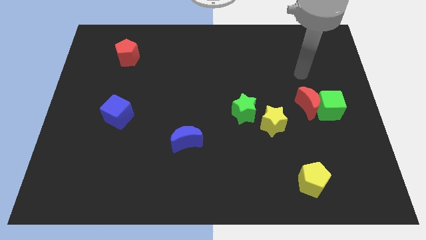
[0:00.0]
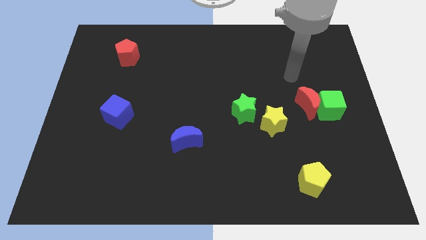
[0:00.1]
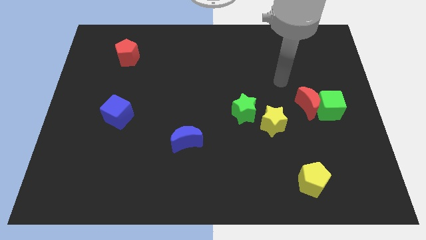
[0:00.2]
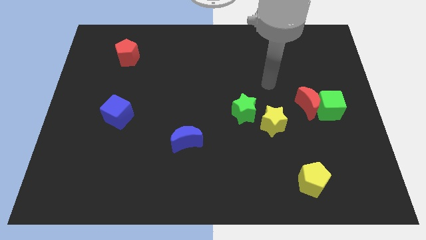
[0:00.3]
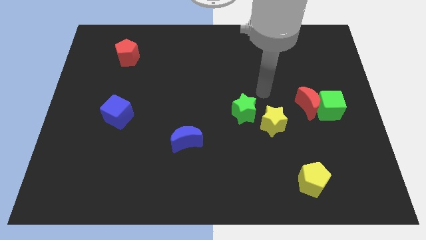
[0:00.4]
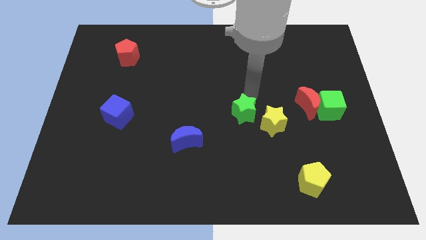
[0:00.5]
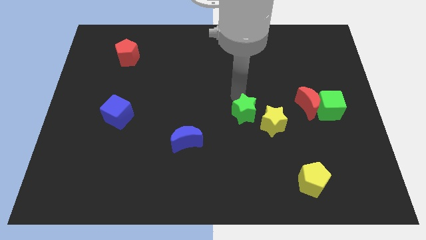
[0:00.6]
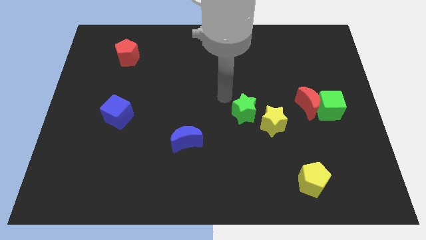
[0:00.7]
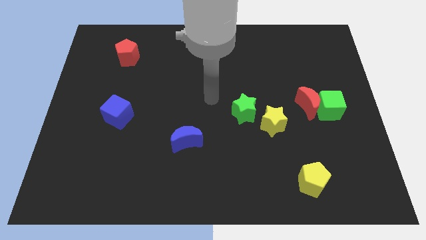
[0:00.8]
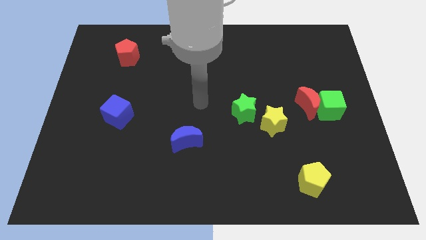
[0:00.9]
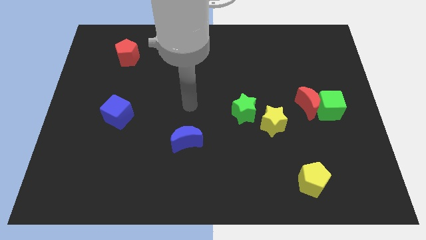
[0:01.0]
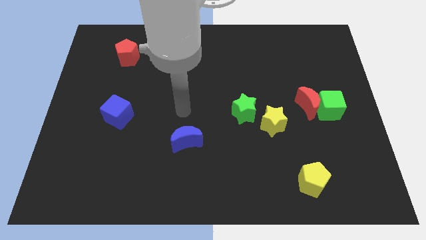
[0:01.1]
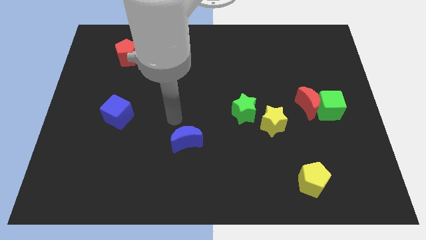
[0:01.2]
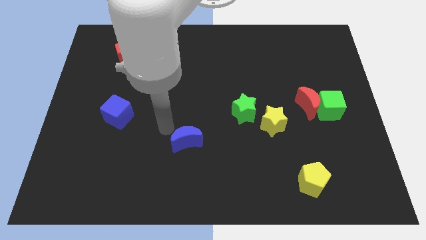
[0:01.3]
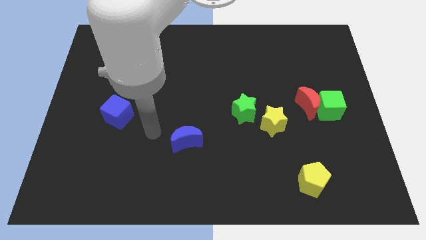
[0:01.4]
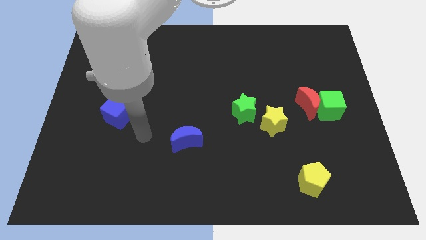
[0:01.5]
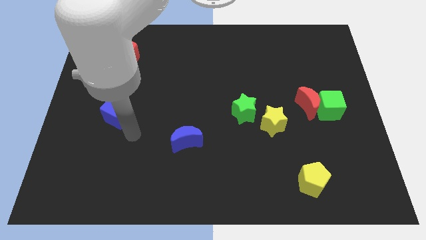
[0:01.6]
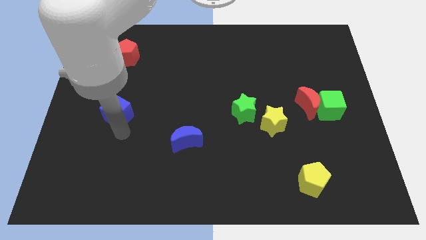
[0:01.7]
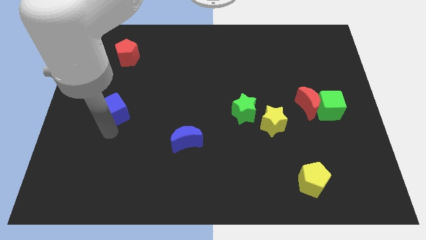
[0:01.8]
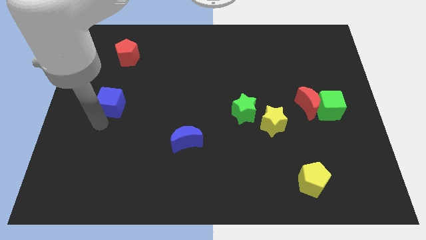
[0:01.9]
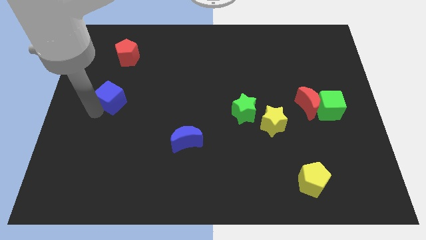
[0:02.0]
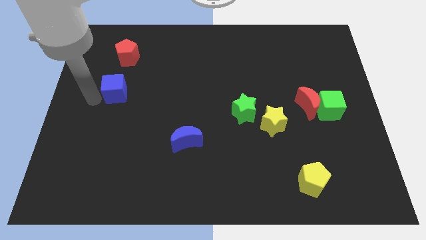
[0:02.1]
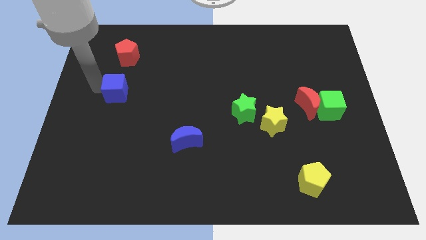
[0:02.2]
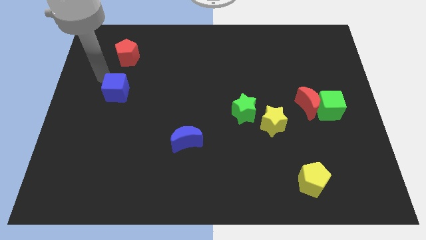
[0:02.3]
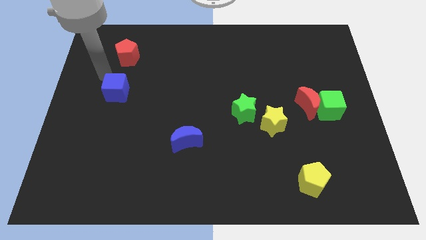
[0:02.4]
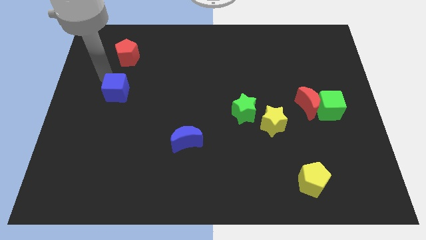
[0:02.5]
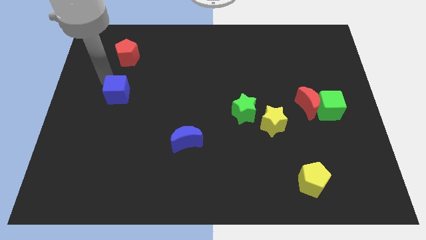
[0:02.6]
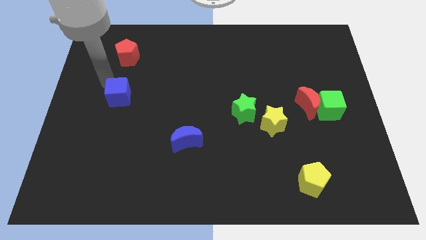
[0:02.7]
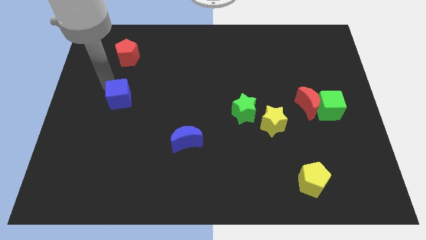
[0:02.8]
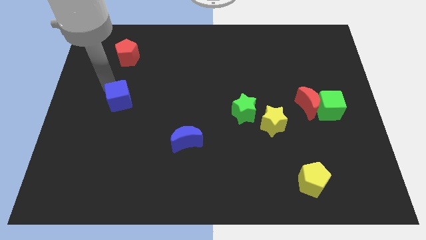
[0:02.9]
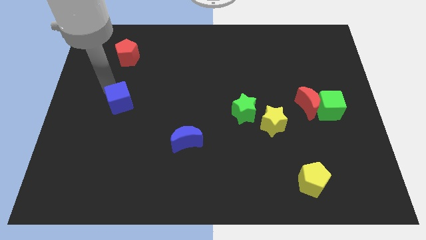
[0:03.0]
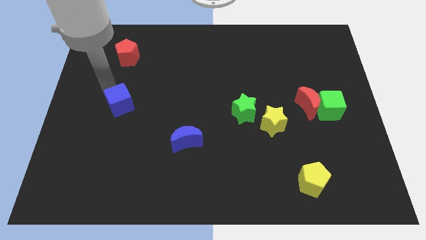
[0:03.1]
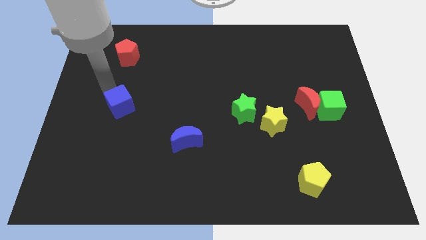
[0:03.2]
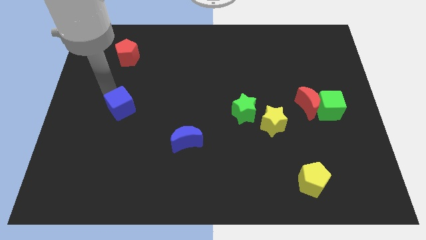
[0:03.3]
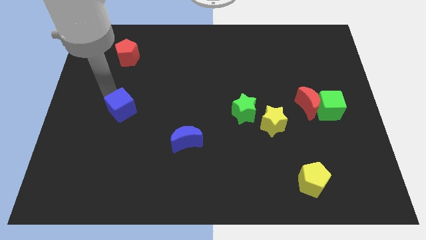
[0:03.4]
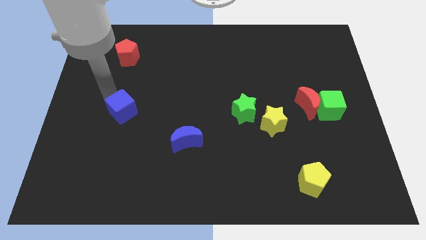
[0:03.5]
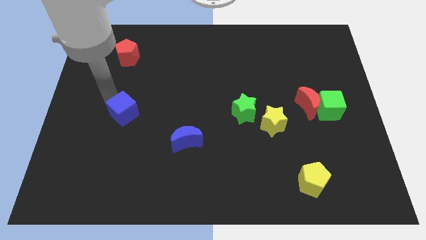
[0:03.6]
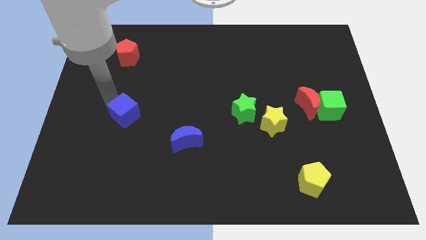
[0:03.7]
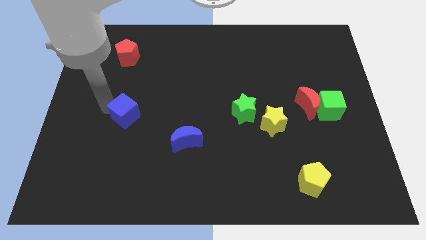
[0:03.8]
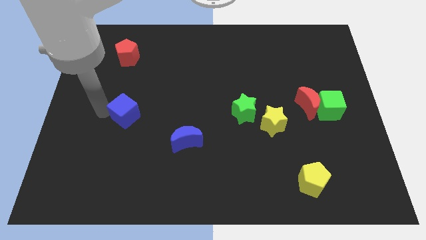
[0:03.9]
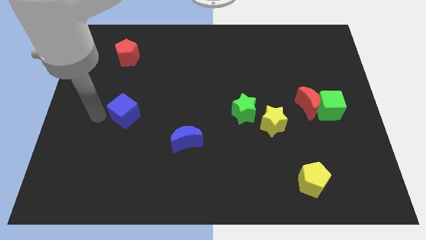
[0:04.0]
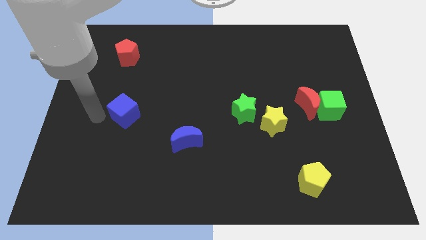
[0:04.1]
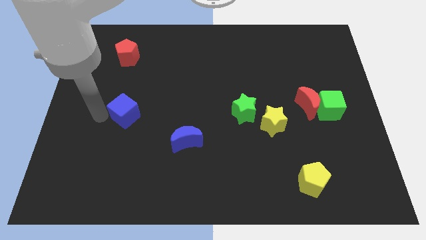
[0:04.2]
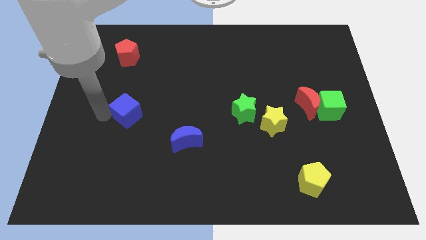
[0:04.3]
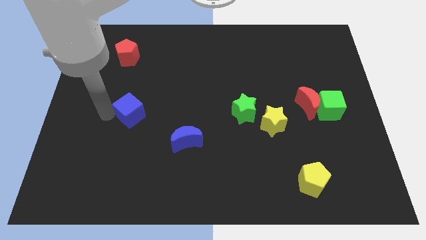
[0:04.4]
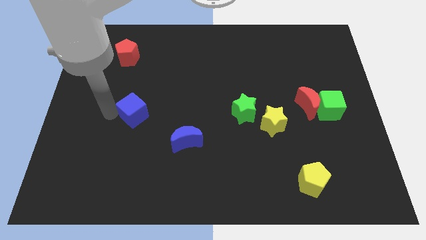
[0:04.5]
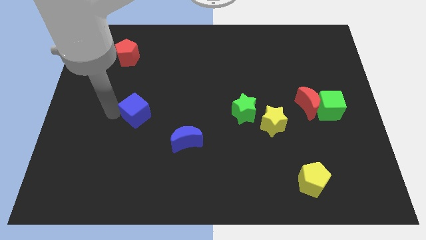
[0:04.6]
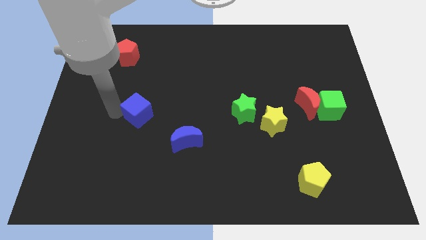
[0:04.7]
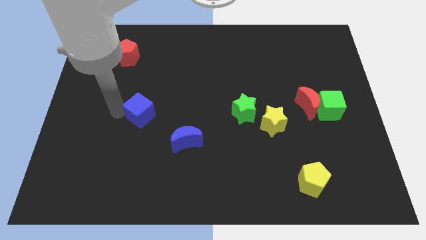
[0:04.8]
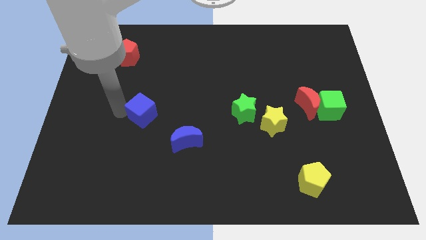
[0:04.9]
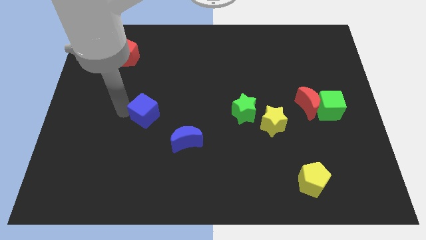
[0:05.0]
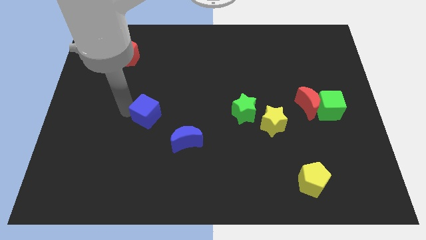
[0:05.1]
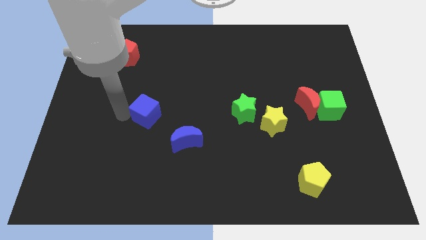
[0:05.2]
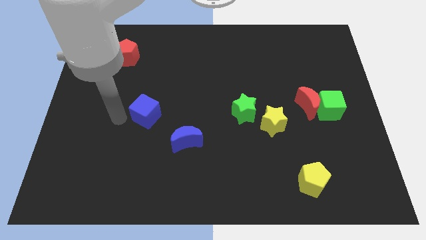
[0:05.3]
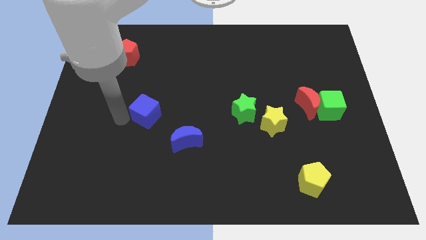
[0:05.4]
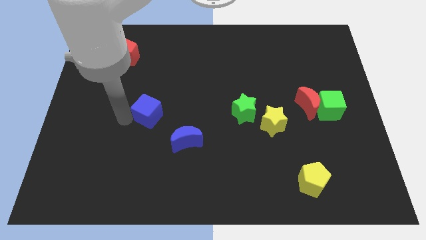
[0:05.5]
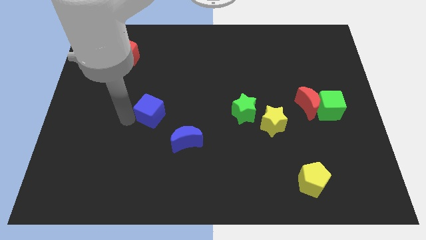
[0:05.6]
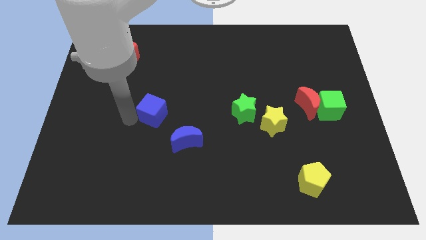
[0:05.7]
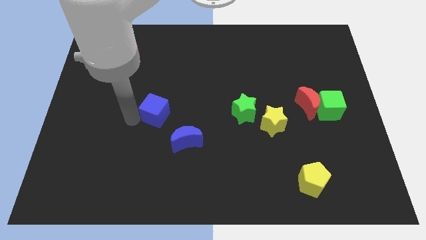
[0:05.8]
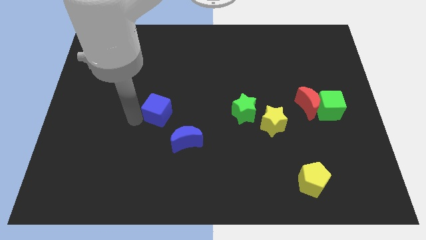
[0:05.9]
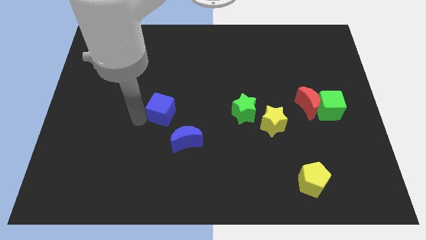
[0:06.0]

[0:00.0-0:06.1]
put the blue cube to the center of the board

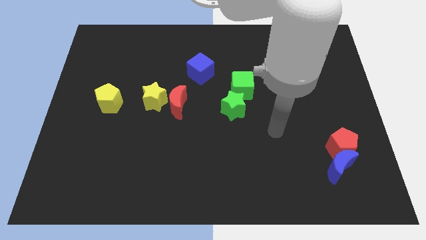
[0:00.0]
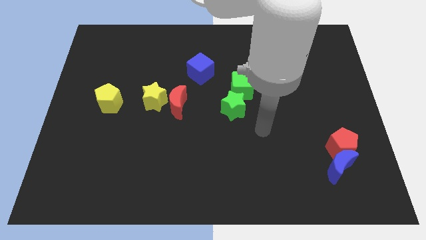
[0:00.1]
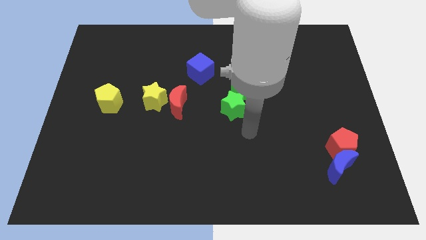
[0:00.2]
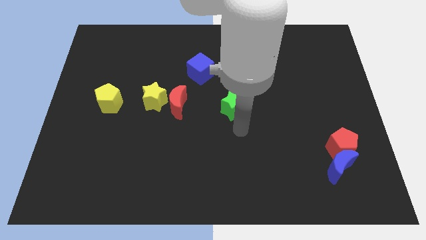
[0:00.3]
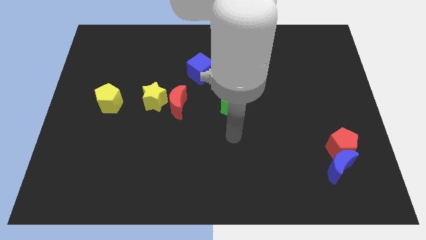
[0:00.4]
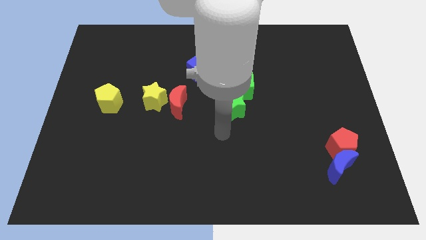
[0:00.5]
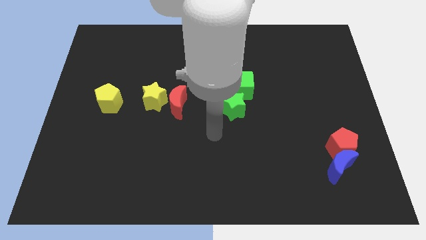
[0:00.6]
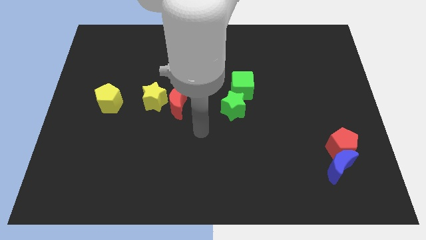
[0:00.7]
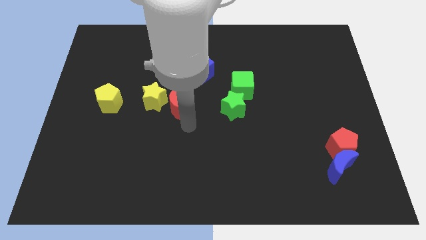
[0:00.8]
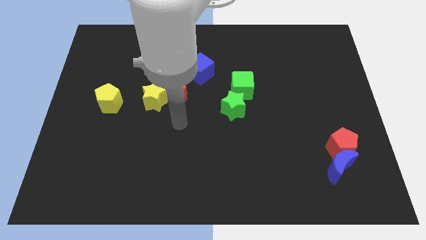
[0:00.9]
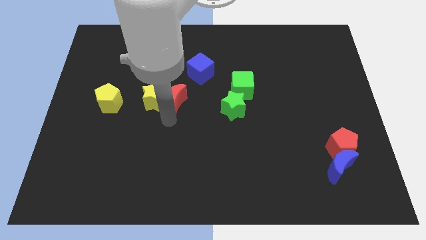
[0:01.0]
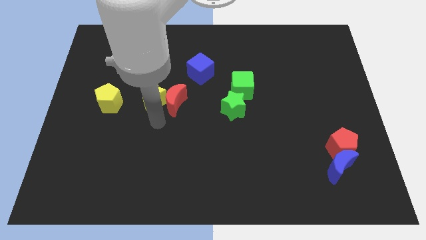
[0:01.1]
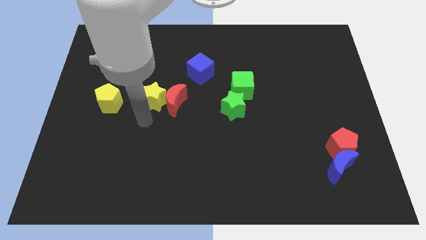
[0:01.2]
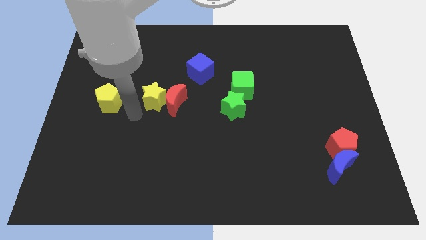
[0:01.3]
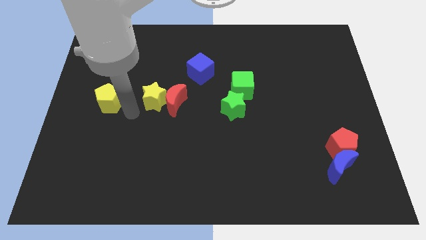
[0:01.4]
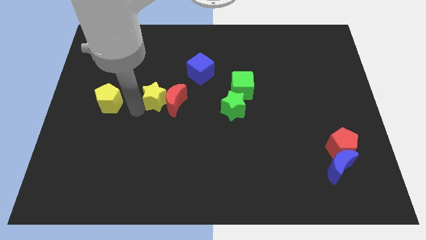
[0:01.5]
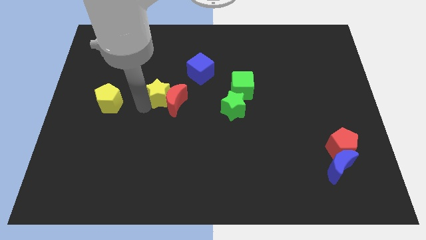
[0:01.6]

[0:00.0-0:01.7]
slide the yellow star to the middle of the board
